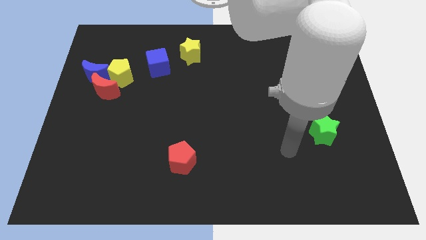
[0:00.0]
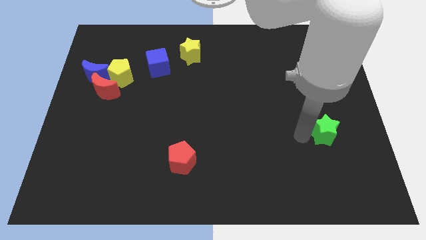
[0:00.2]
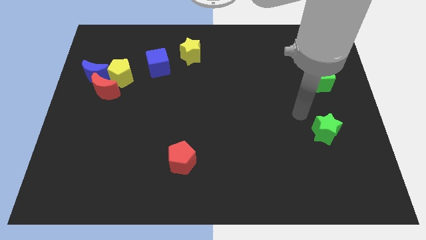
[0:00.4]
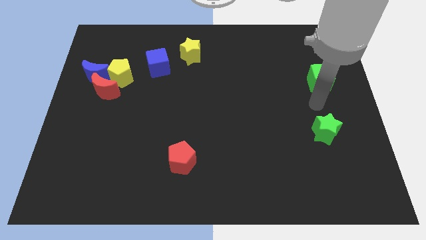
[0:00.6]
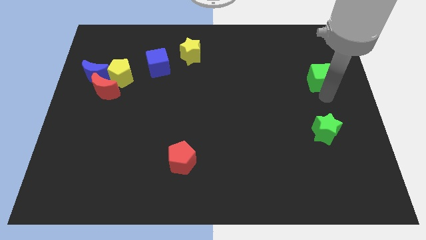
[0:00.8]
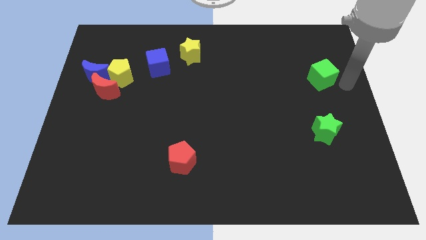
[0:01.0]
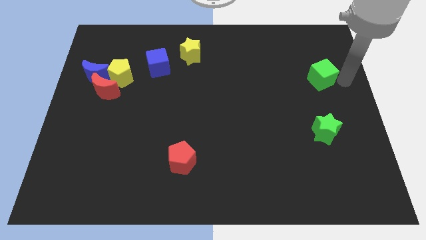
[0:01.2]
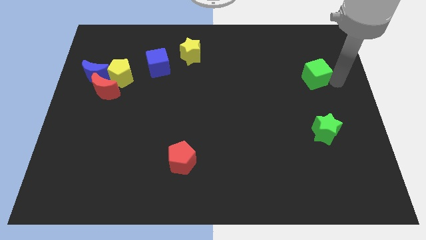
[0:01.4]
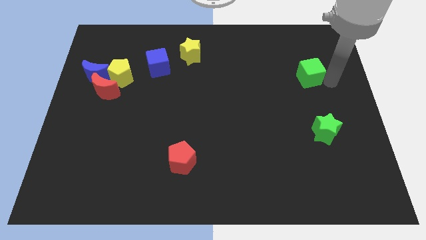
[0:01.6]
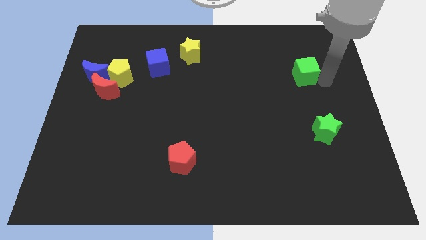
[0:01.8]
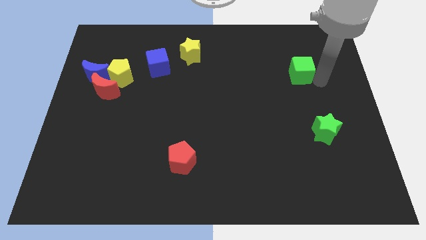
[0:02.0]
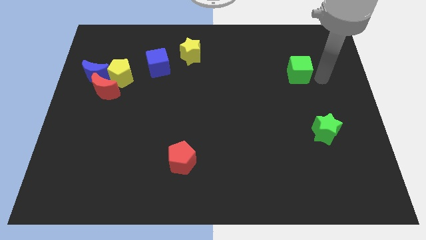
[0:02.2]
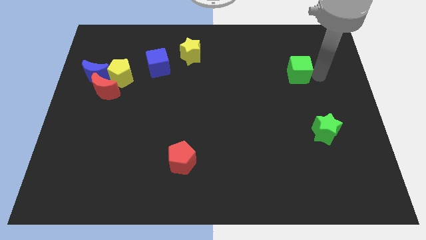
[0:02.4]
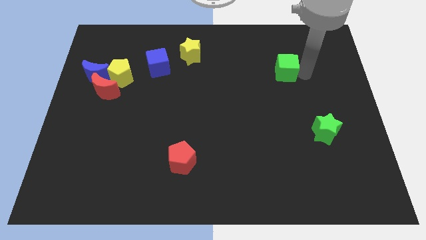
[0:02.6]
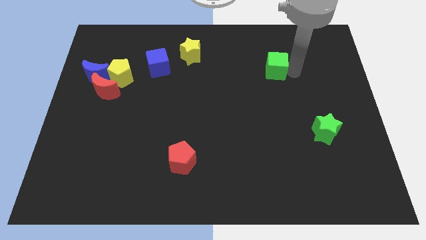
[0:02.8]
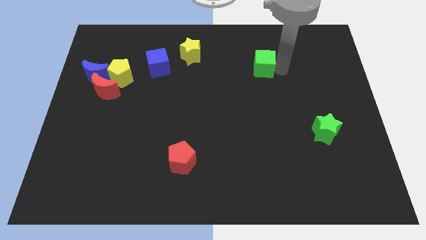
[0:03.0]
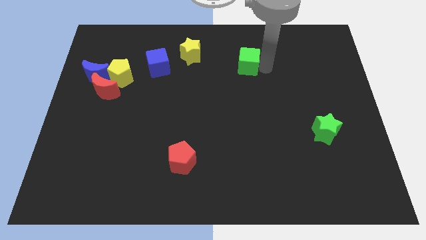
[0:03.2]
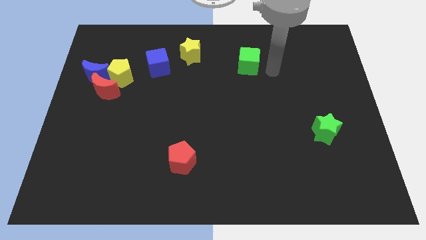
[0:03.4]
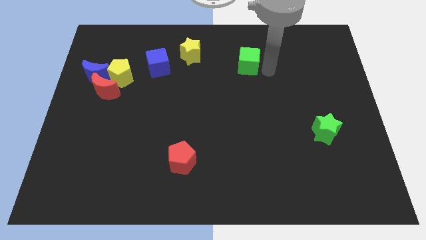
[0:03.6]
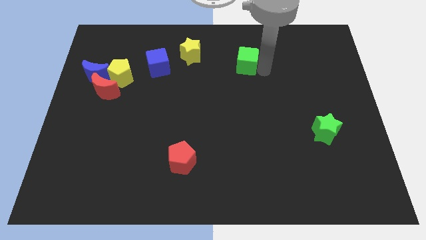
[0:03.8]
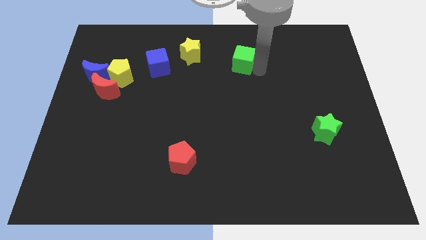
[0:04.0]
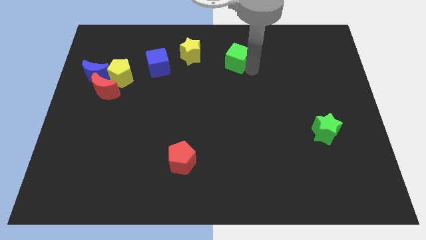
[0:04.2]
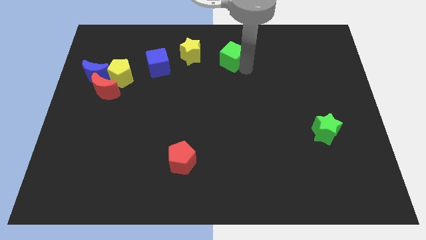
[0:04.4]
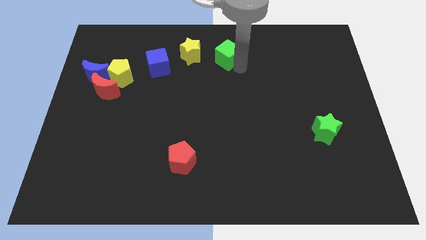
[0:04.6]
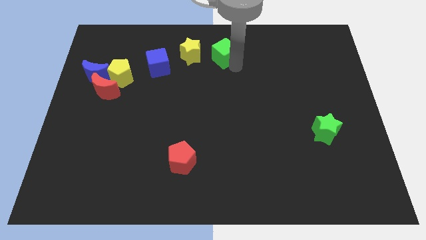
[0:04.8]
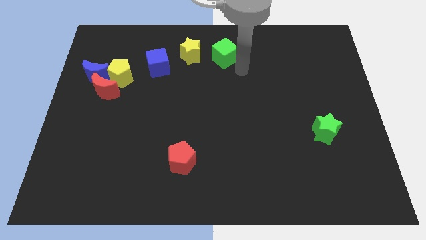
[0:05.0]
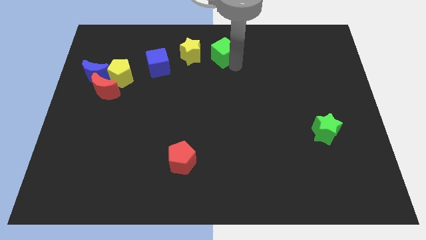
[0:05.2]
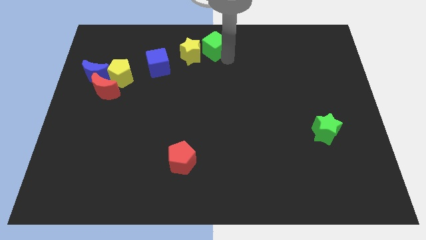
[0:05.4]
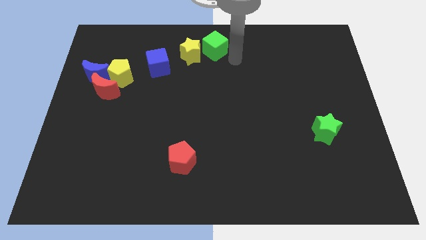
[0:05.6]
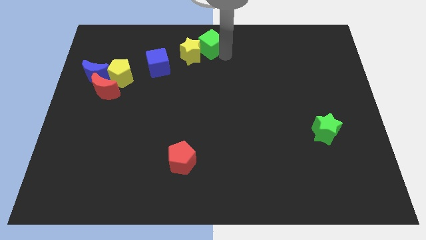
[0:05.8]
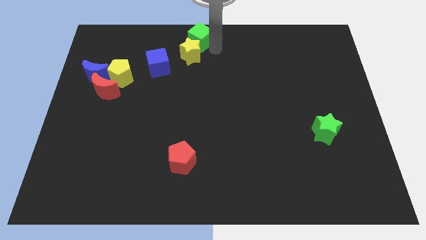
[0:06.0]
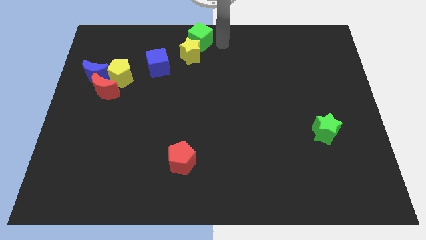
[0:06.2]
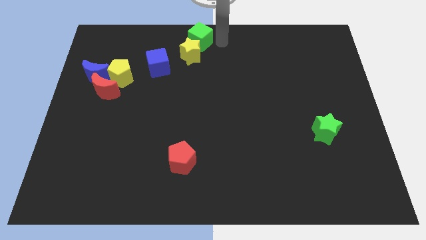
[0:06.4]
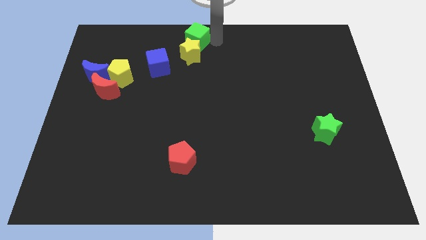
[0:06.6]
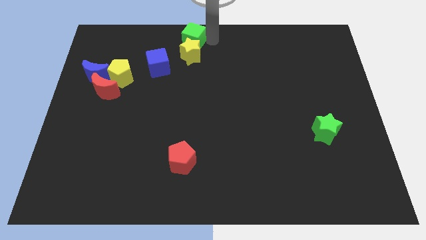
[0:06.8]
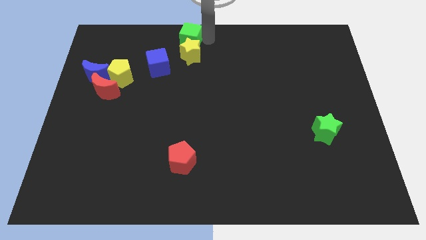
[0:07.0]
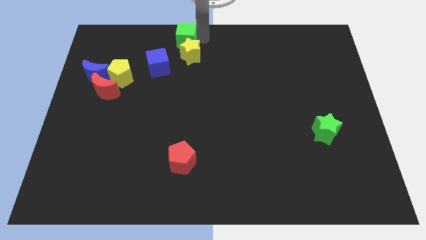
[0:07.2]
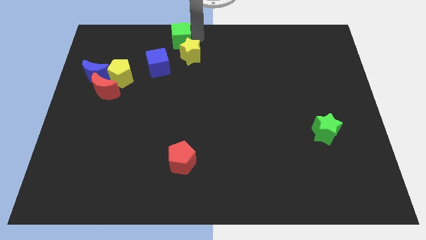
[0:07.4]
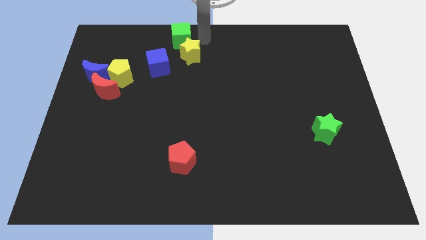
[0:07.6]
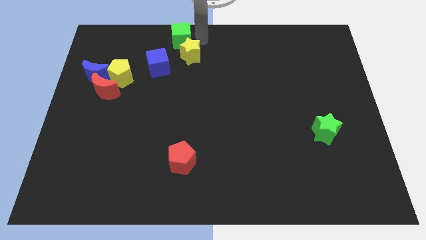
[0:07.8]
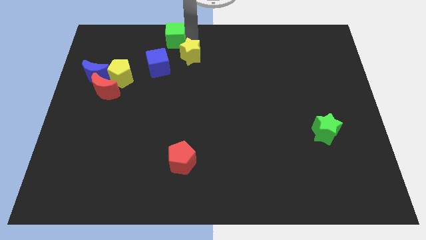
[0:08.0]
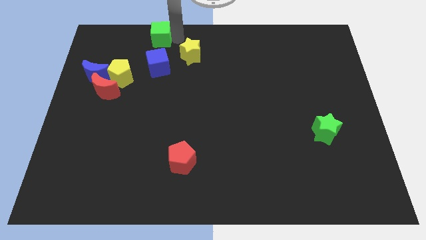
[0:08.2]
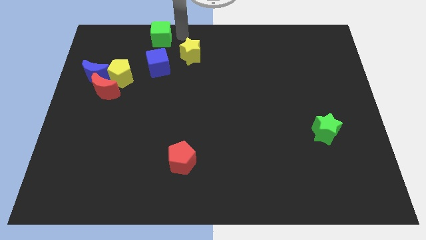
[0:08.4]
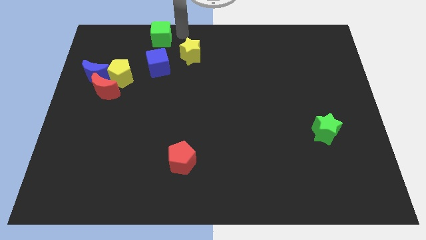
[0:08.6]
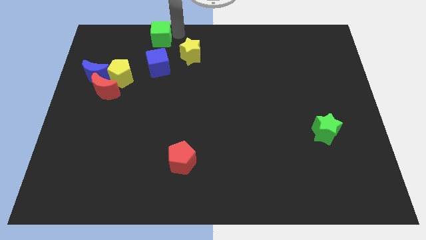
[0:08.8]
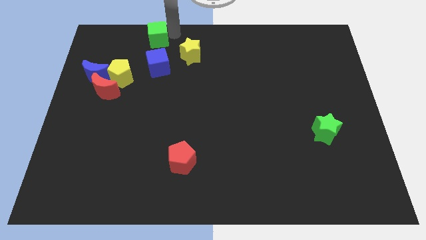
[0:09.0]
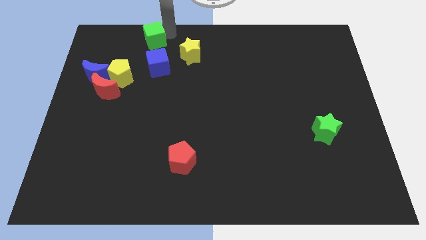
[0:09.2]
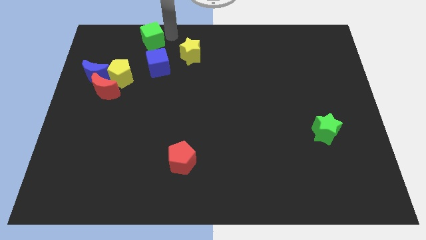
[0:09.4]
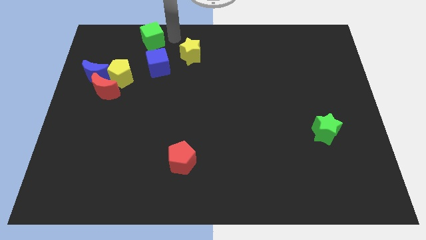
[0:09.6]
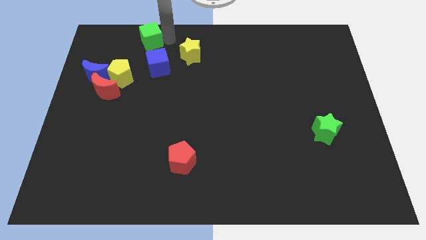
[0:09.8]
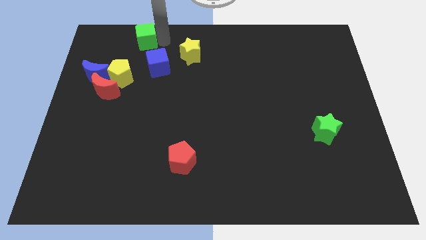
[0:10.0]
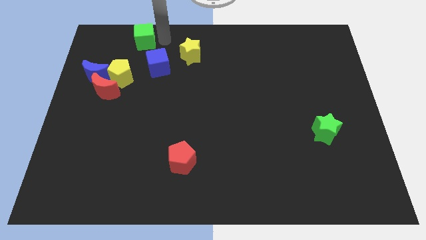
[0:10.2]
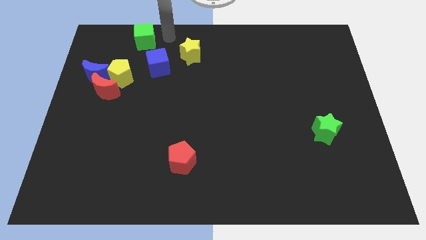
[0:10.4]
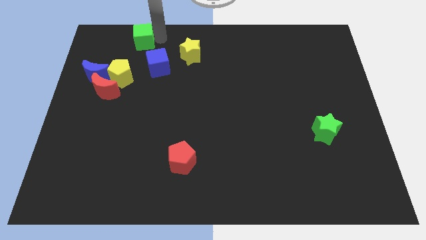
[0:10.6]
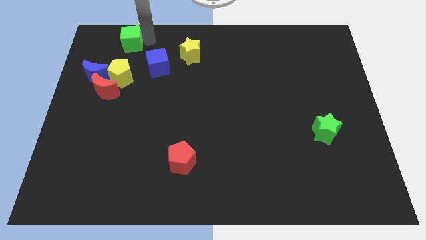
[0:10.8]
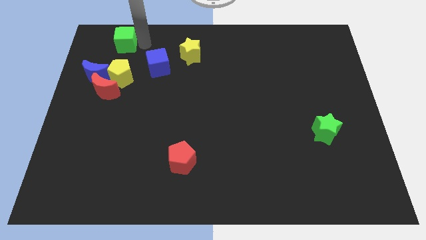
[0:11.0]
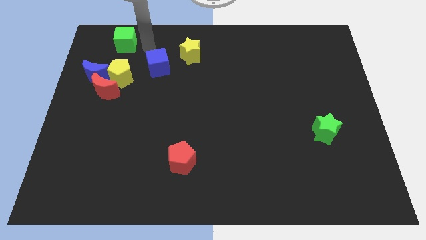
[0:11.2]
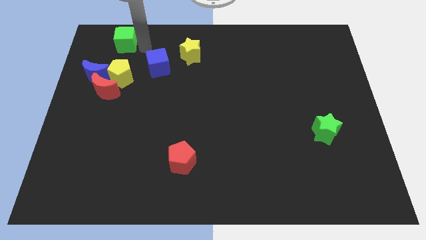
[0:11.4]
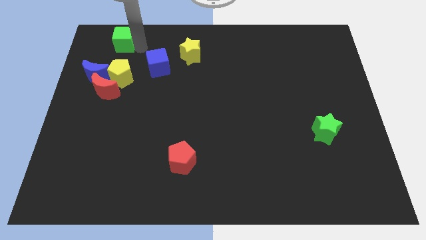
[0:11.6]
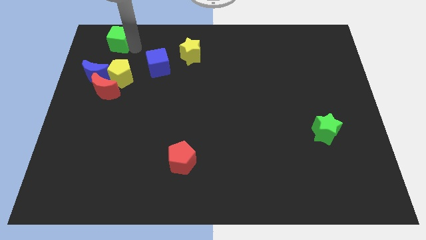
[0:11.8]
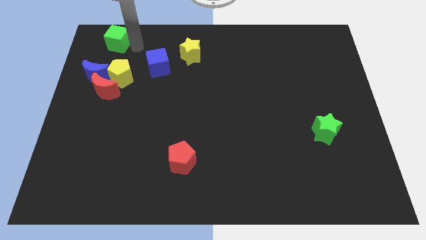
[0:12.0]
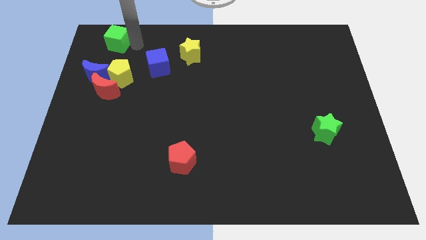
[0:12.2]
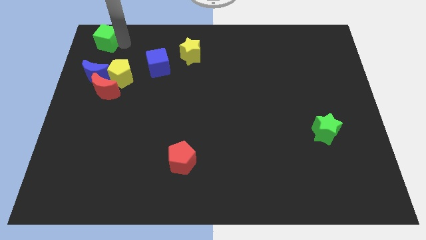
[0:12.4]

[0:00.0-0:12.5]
put the green cube to the top left corner
